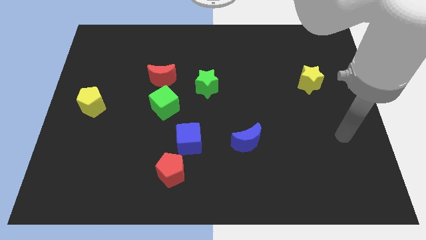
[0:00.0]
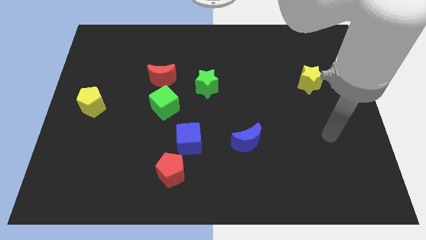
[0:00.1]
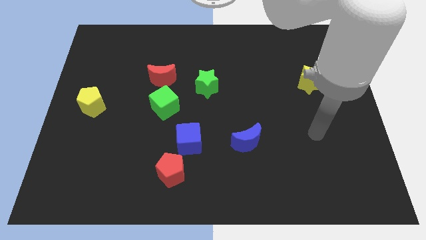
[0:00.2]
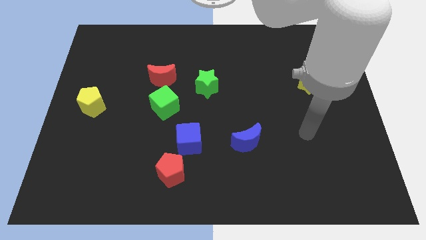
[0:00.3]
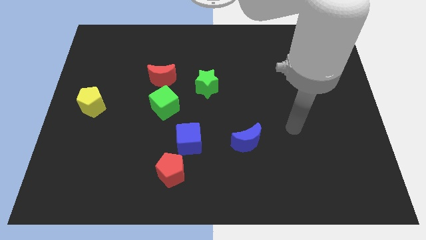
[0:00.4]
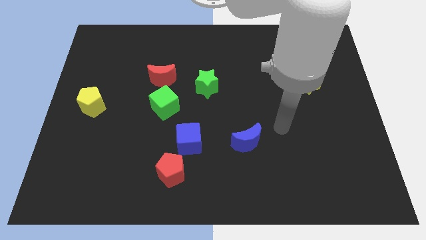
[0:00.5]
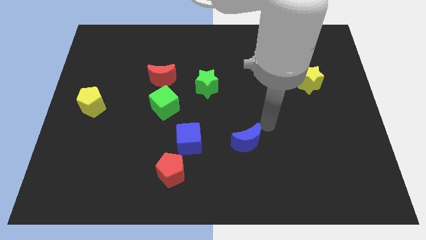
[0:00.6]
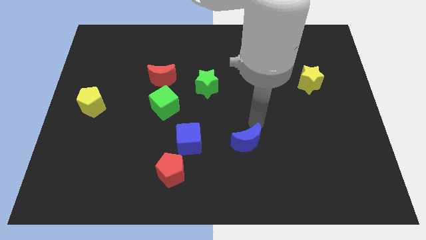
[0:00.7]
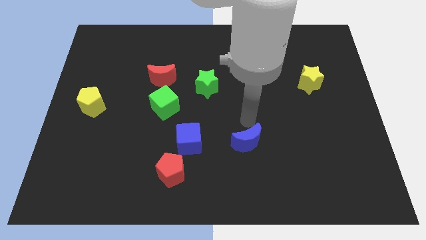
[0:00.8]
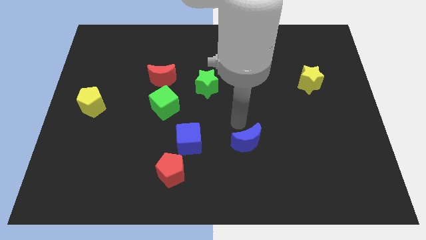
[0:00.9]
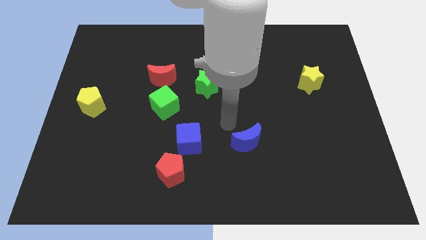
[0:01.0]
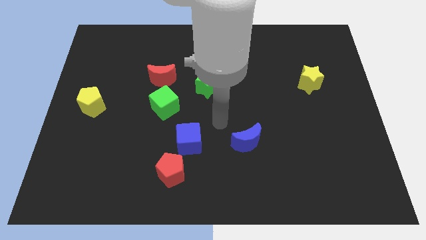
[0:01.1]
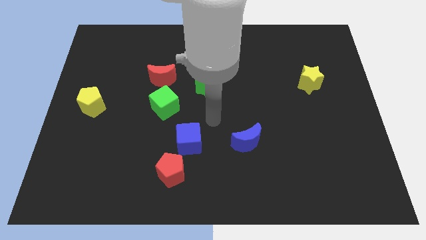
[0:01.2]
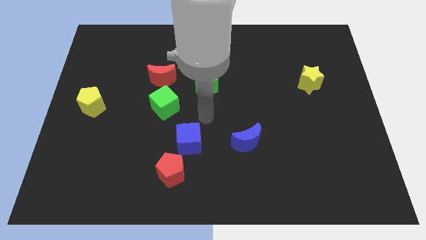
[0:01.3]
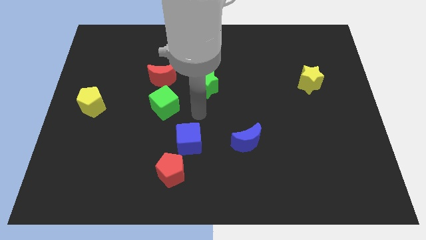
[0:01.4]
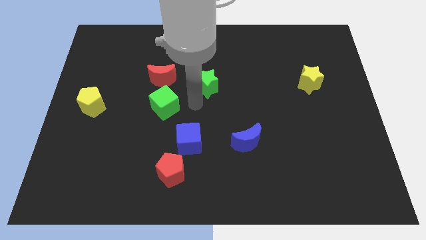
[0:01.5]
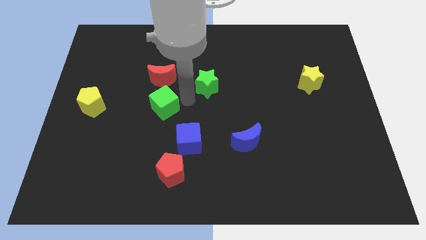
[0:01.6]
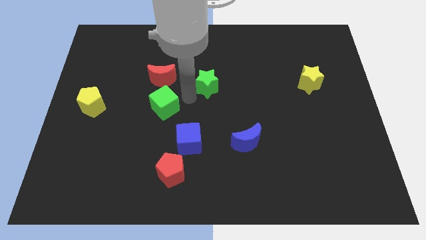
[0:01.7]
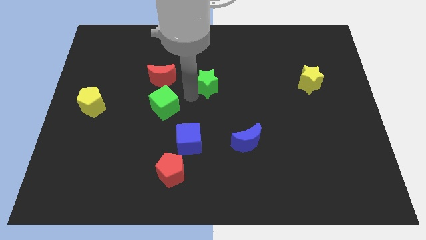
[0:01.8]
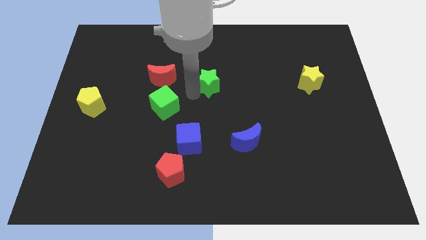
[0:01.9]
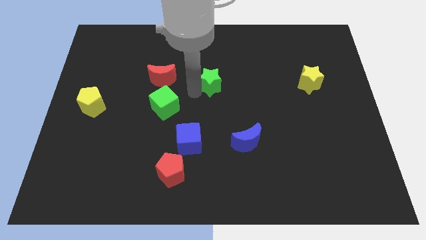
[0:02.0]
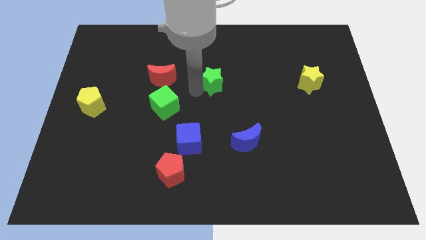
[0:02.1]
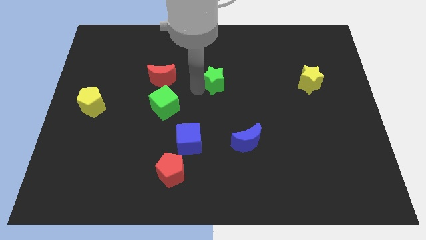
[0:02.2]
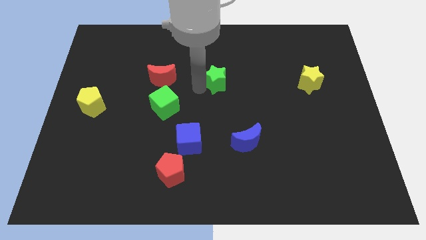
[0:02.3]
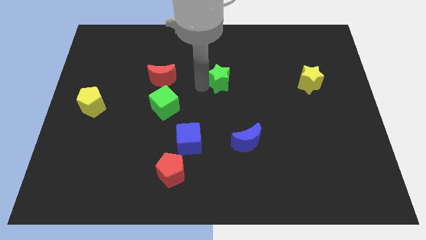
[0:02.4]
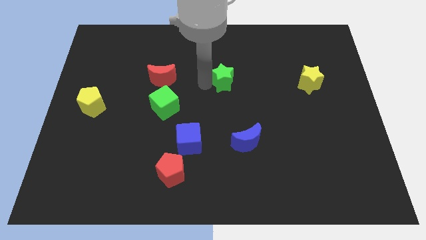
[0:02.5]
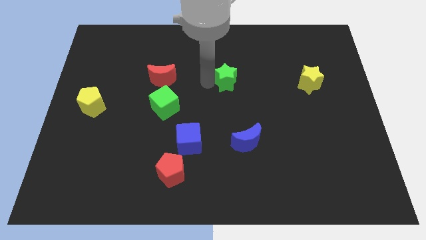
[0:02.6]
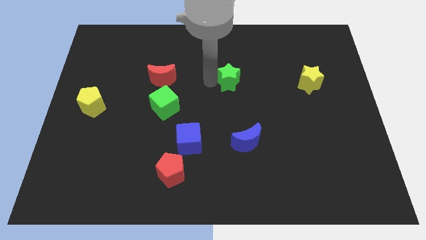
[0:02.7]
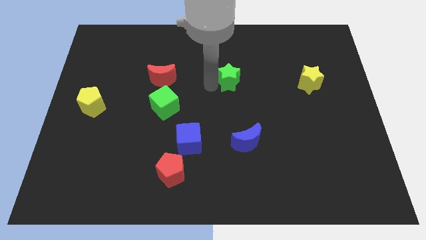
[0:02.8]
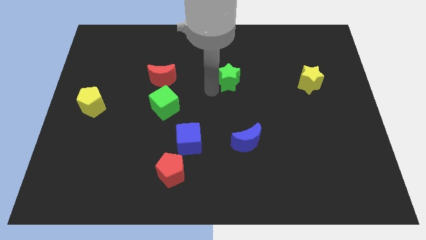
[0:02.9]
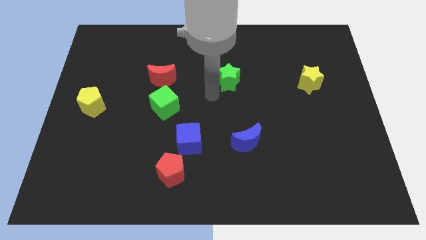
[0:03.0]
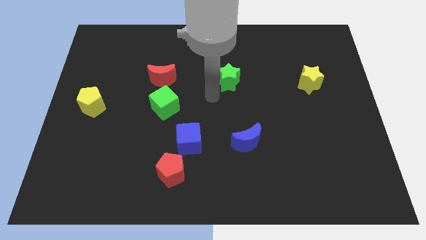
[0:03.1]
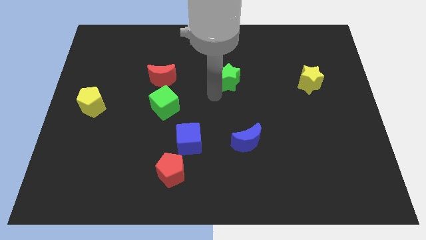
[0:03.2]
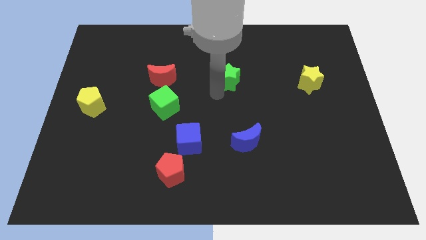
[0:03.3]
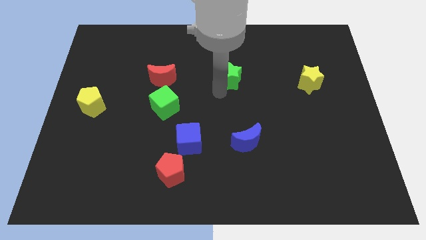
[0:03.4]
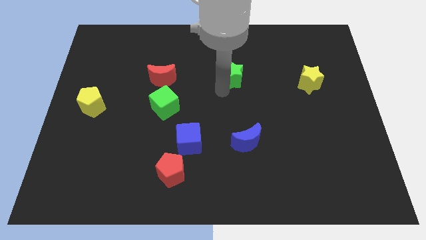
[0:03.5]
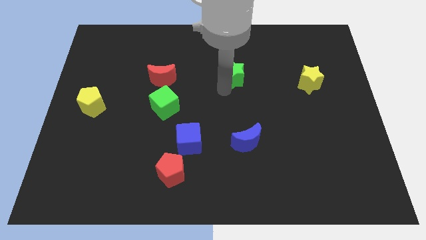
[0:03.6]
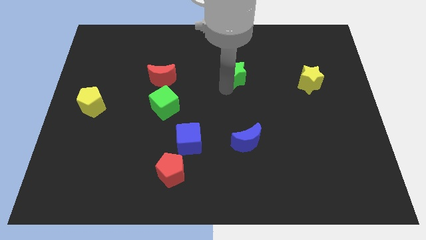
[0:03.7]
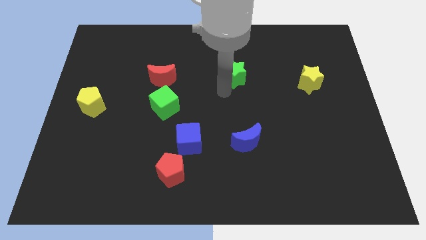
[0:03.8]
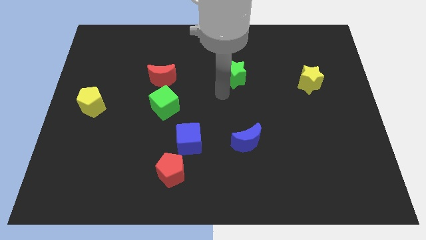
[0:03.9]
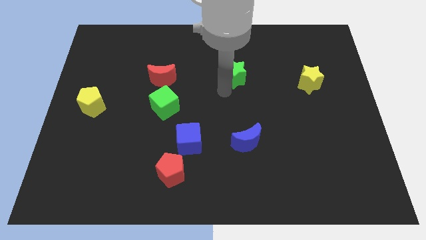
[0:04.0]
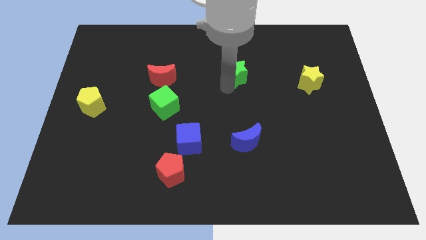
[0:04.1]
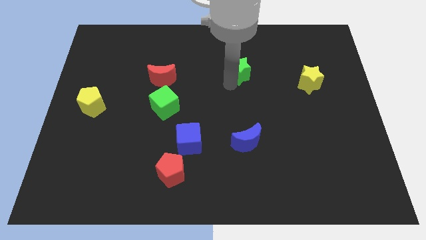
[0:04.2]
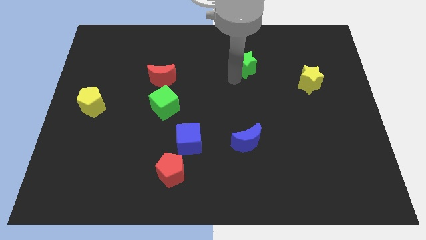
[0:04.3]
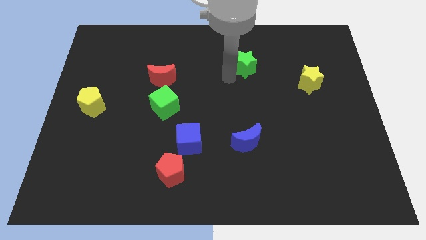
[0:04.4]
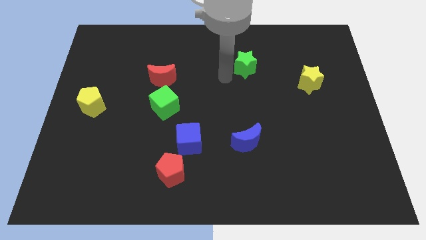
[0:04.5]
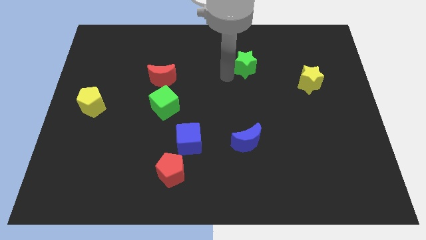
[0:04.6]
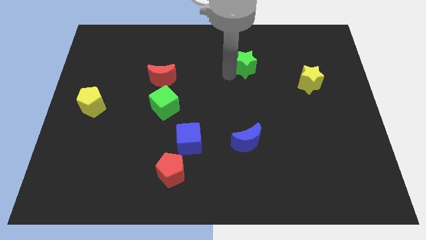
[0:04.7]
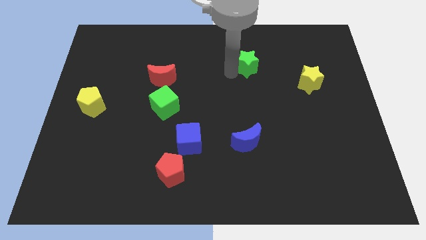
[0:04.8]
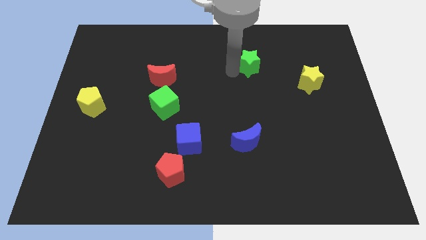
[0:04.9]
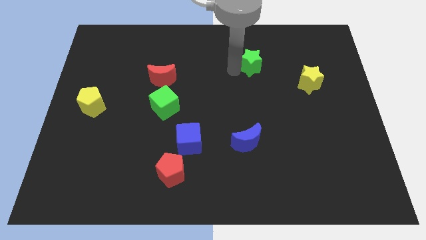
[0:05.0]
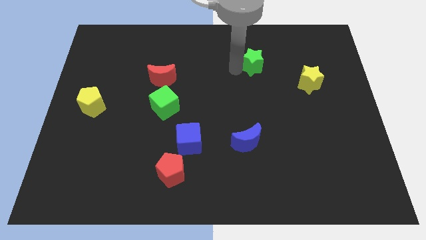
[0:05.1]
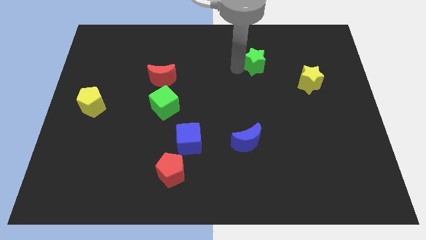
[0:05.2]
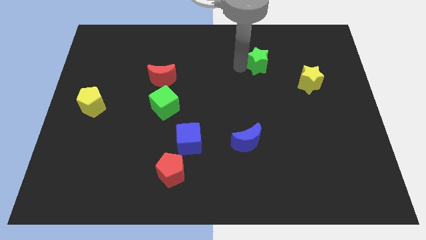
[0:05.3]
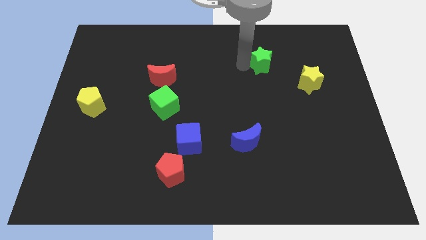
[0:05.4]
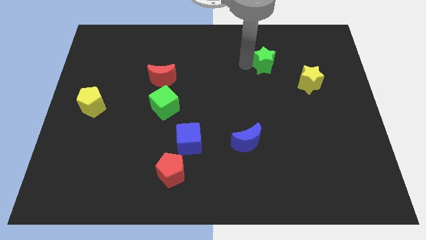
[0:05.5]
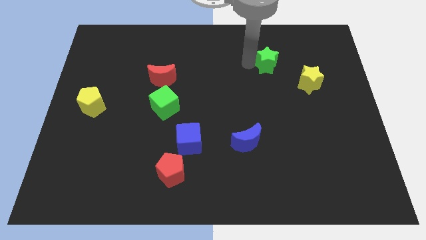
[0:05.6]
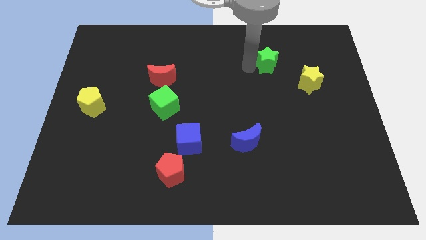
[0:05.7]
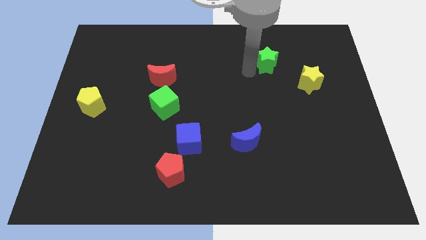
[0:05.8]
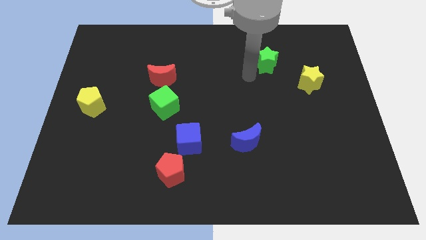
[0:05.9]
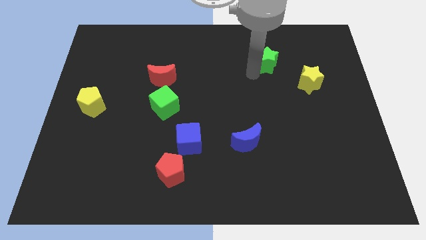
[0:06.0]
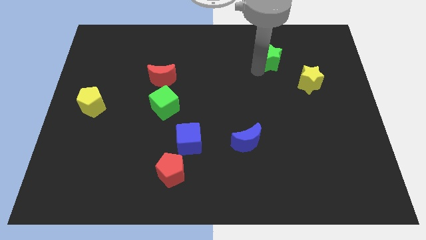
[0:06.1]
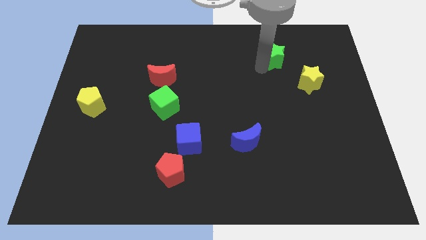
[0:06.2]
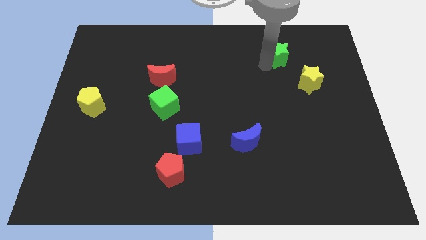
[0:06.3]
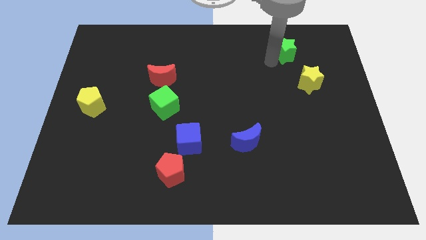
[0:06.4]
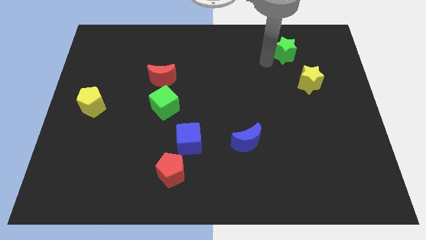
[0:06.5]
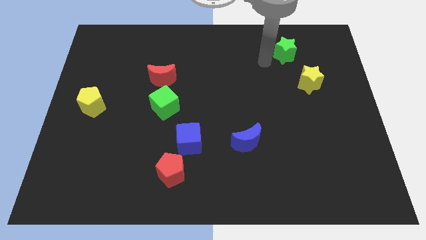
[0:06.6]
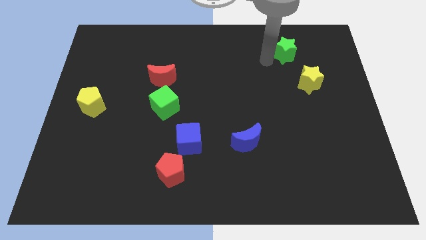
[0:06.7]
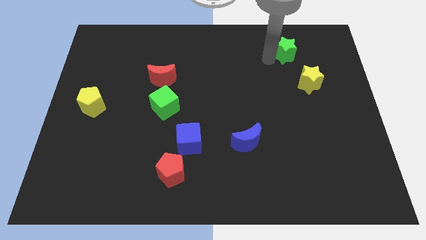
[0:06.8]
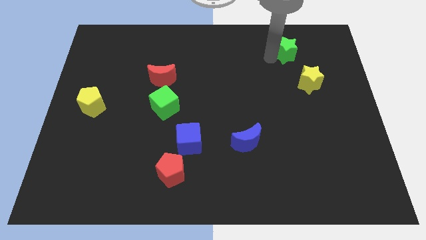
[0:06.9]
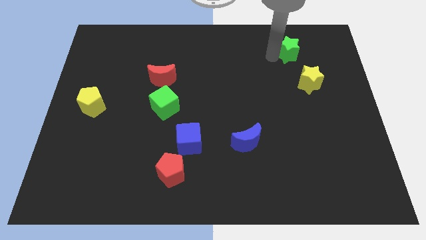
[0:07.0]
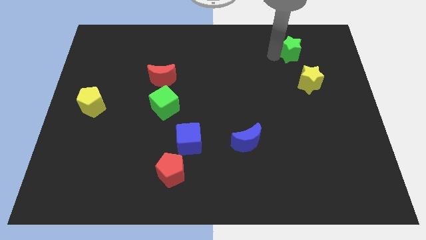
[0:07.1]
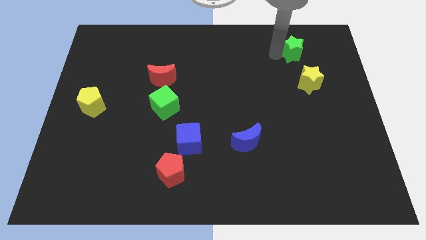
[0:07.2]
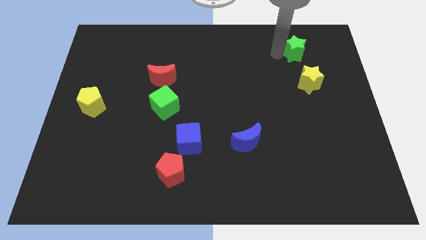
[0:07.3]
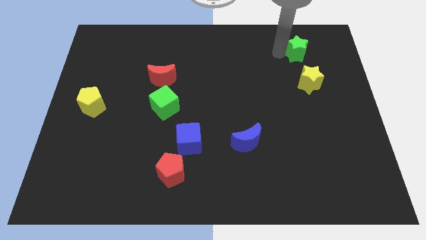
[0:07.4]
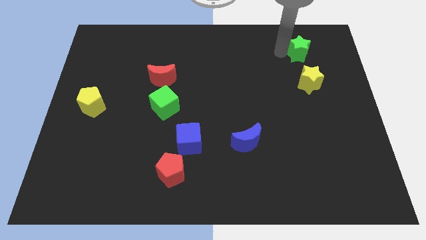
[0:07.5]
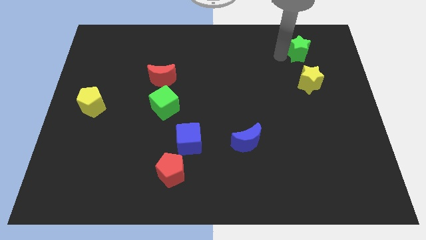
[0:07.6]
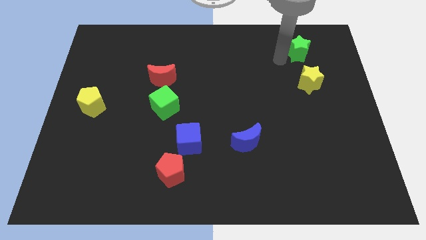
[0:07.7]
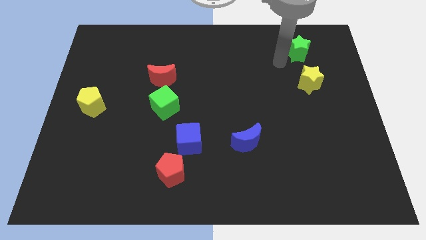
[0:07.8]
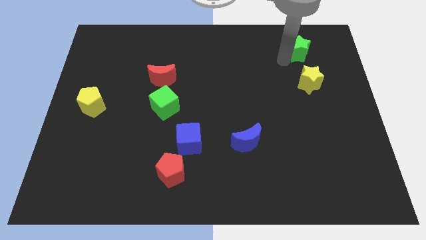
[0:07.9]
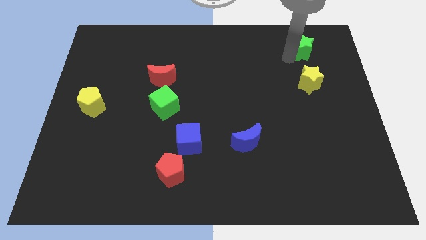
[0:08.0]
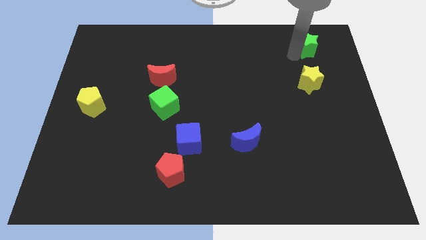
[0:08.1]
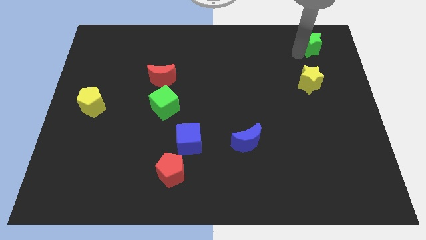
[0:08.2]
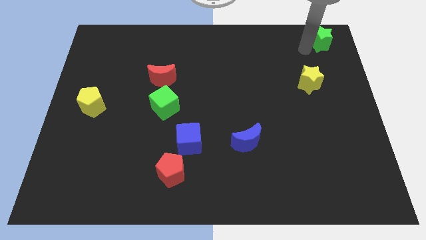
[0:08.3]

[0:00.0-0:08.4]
move the green star to the upper right corner
